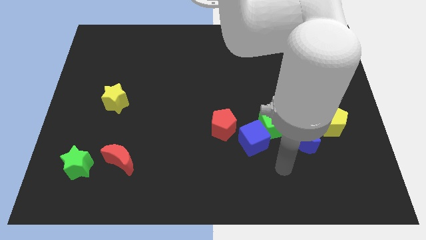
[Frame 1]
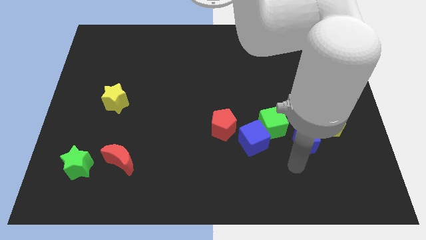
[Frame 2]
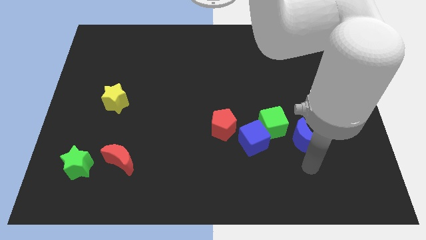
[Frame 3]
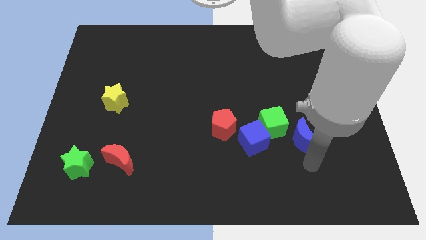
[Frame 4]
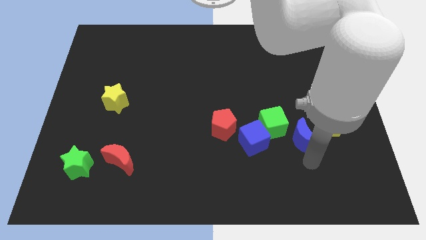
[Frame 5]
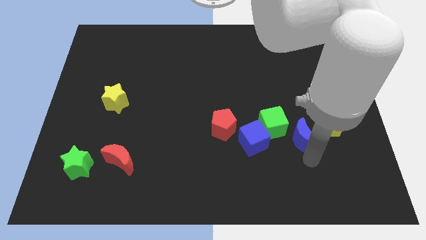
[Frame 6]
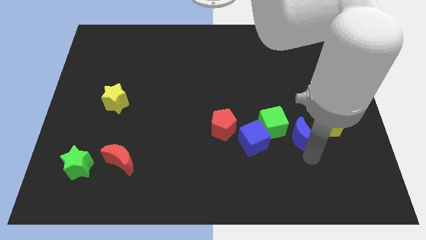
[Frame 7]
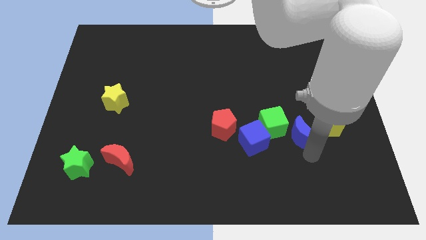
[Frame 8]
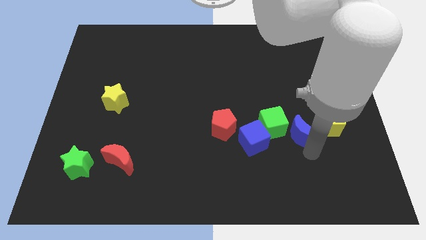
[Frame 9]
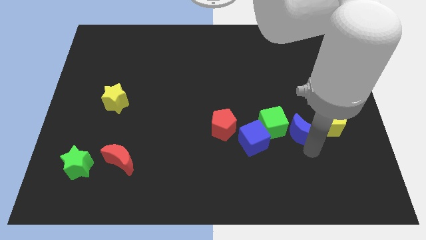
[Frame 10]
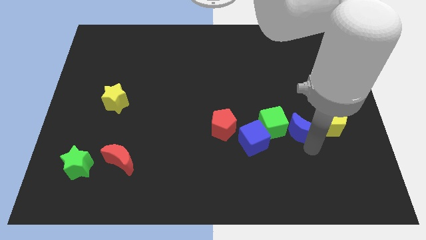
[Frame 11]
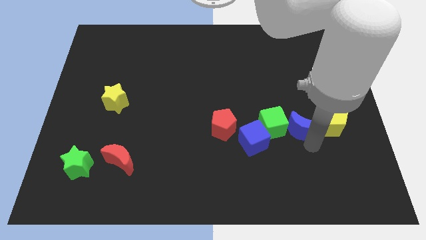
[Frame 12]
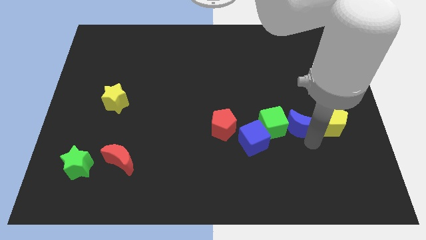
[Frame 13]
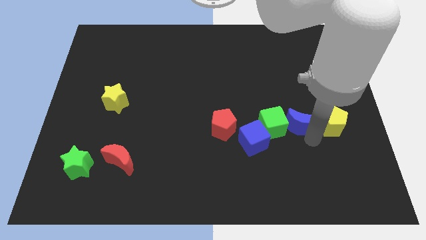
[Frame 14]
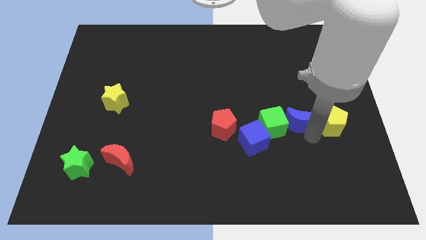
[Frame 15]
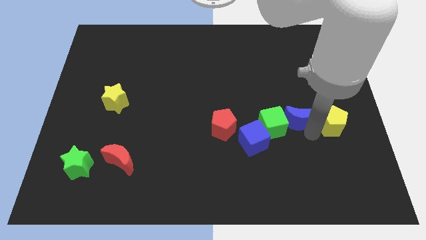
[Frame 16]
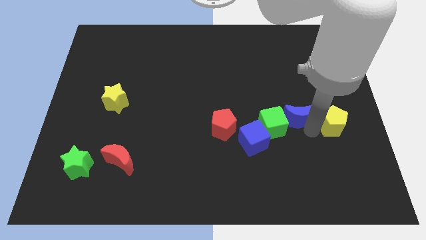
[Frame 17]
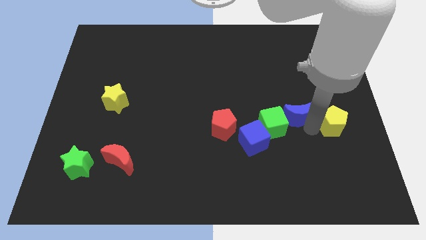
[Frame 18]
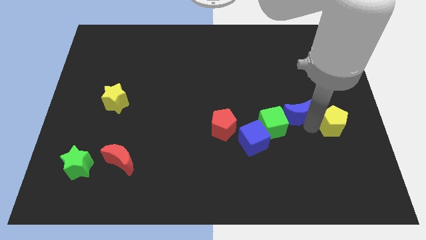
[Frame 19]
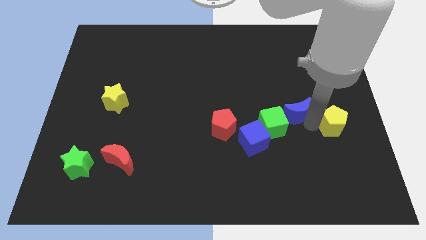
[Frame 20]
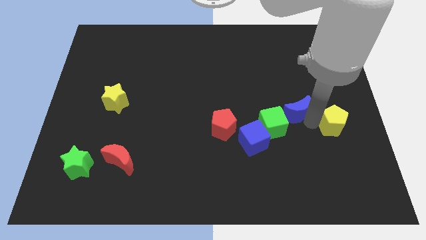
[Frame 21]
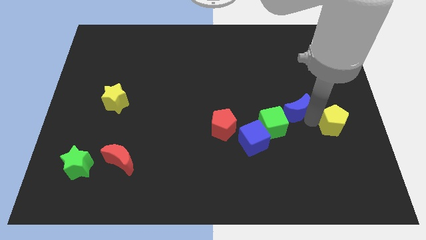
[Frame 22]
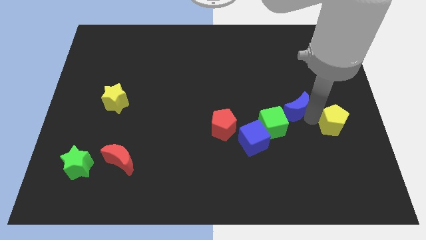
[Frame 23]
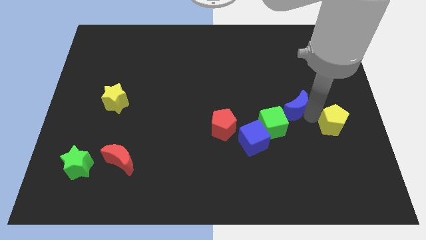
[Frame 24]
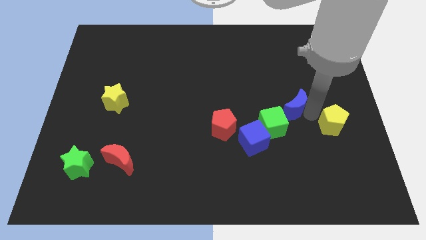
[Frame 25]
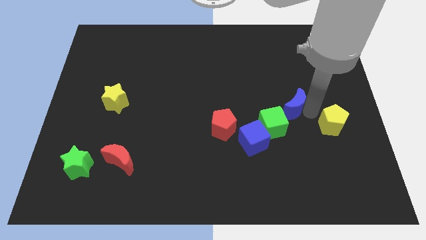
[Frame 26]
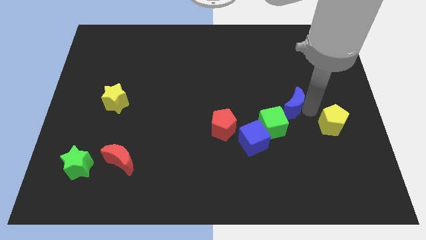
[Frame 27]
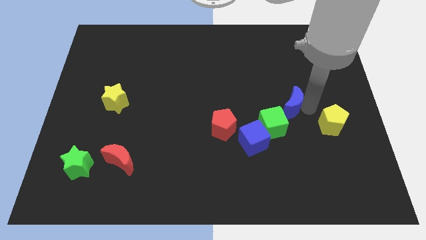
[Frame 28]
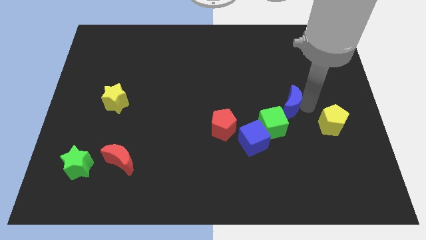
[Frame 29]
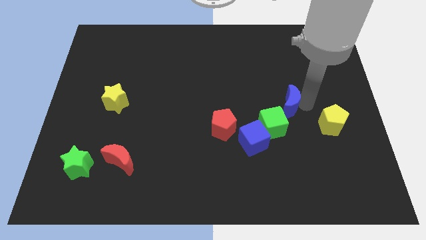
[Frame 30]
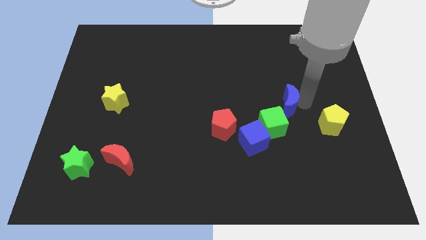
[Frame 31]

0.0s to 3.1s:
push the blue moon a little up and left

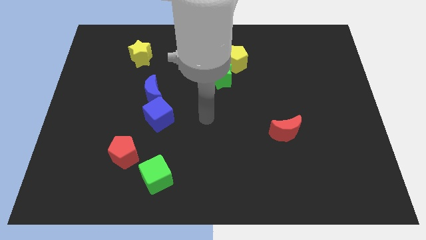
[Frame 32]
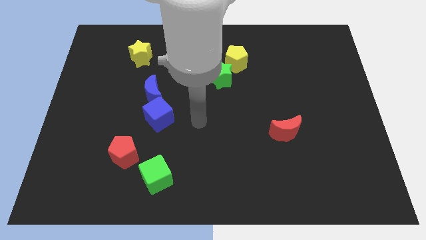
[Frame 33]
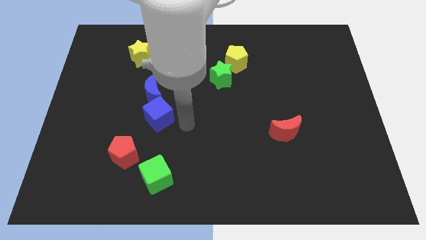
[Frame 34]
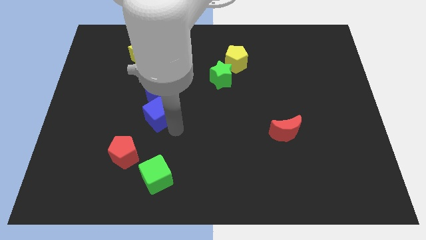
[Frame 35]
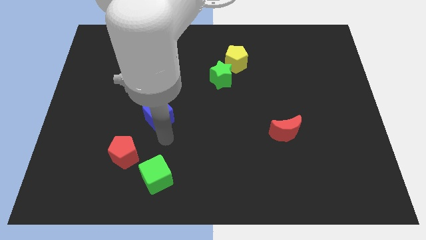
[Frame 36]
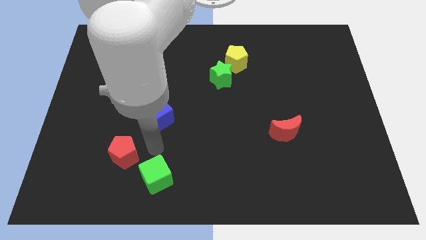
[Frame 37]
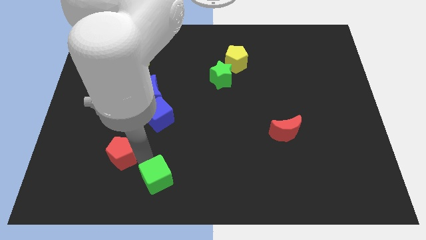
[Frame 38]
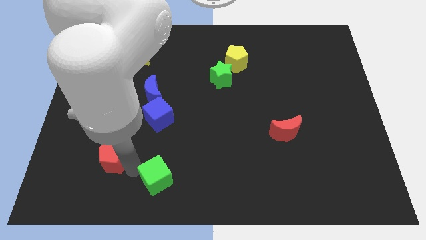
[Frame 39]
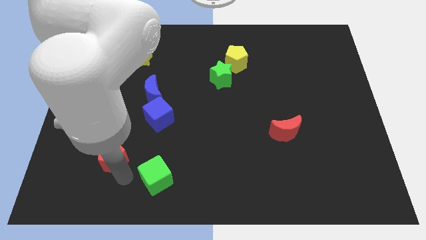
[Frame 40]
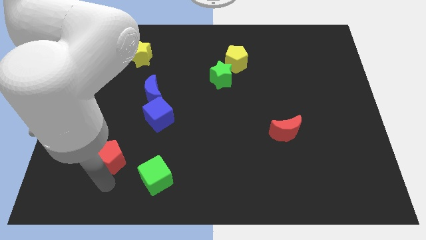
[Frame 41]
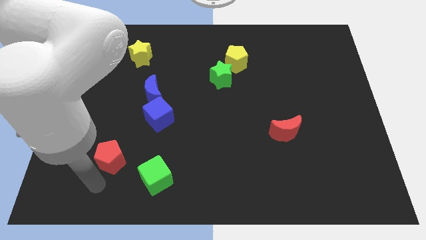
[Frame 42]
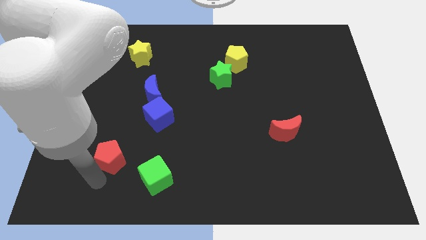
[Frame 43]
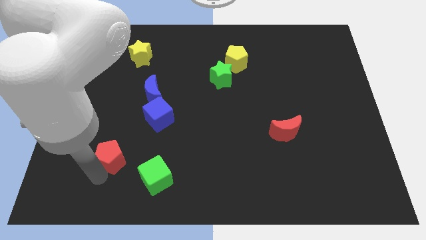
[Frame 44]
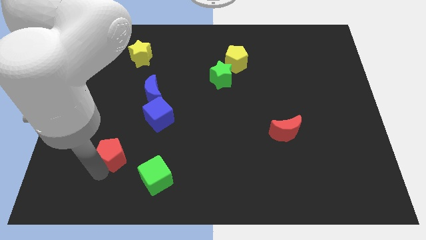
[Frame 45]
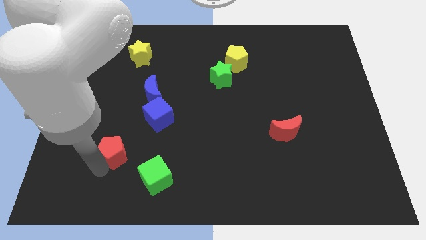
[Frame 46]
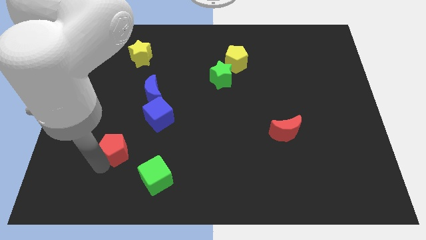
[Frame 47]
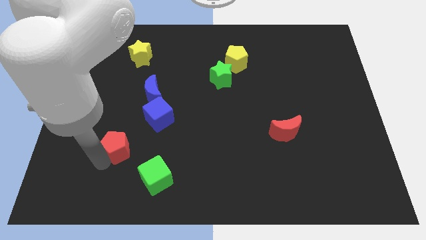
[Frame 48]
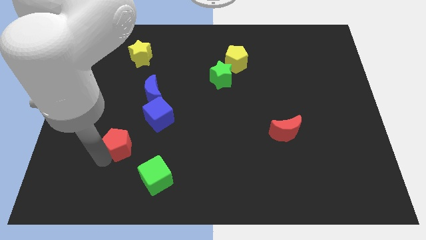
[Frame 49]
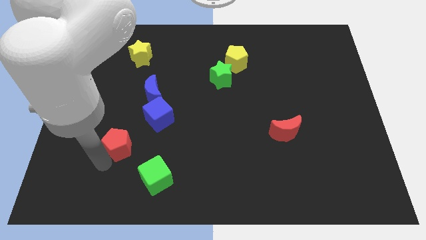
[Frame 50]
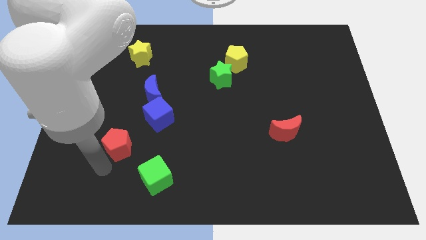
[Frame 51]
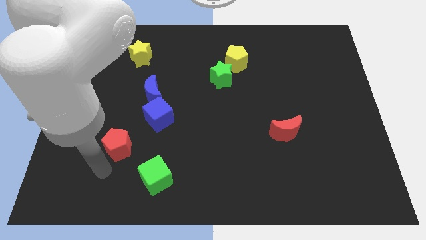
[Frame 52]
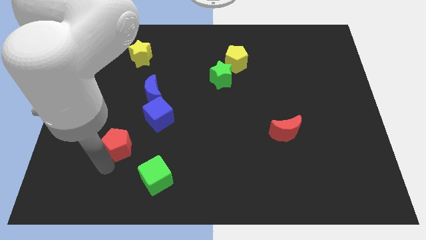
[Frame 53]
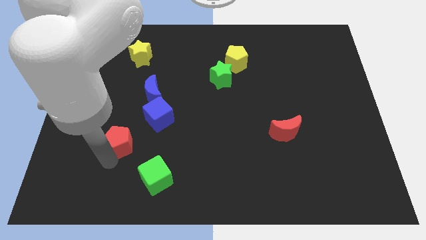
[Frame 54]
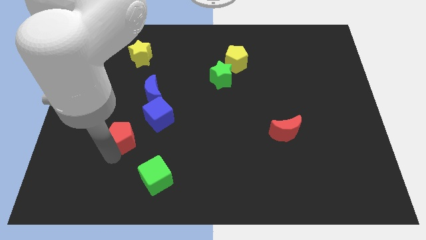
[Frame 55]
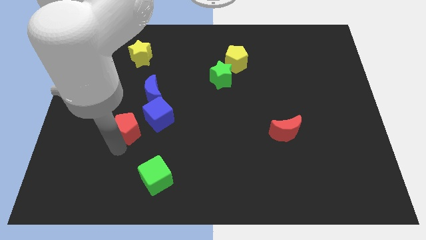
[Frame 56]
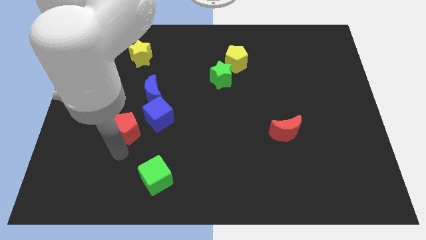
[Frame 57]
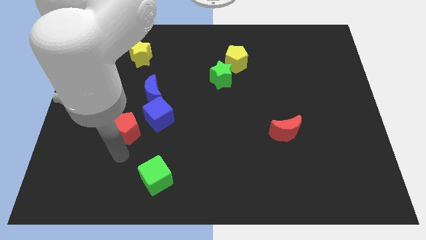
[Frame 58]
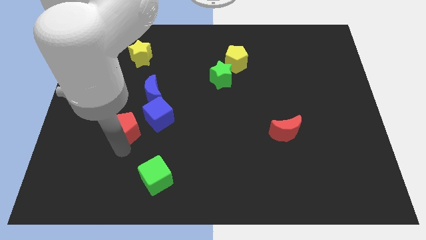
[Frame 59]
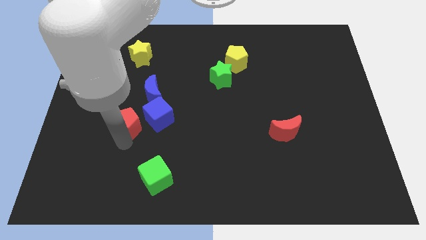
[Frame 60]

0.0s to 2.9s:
slightly push the red pentagon up

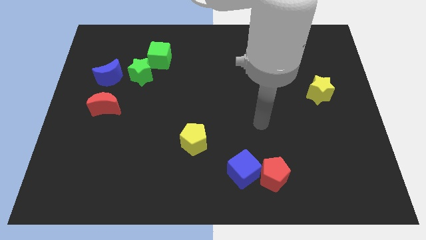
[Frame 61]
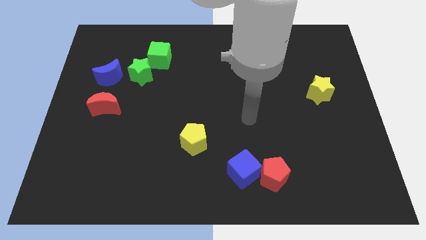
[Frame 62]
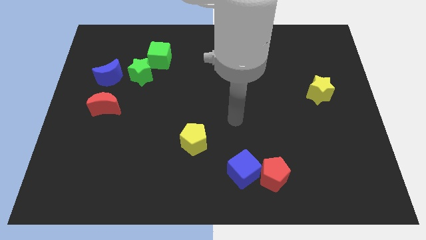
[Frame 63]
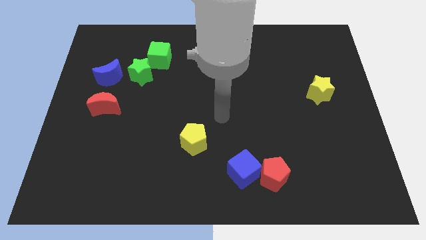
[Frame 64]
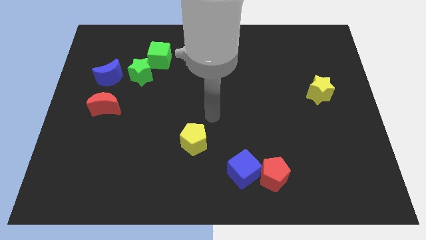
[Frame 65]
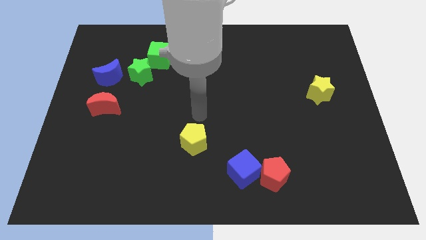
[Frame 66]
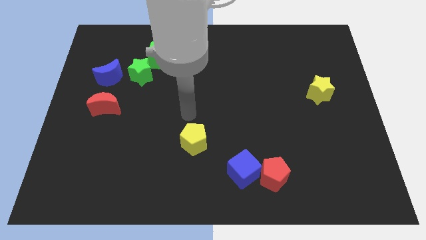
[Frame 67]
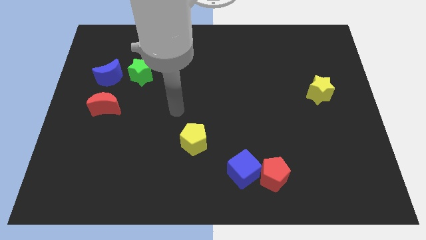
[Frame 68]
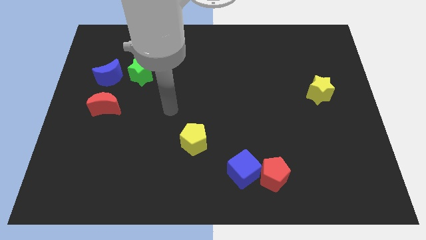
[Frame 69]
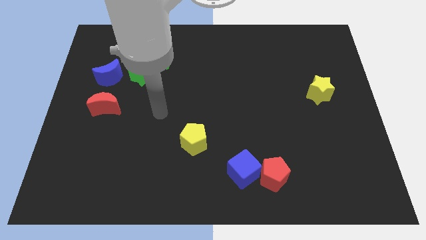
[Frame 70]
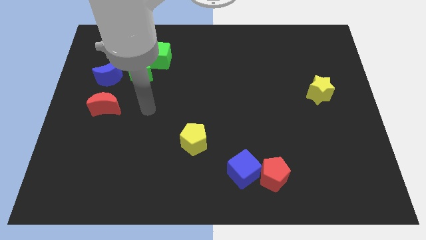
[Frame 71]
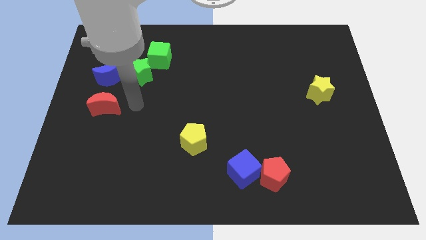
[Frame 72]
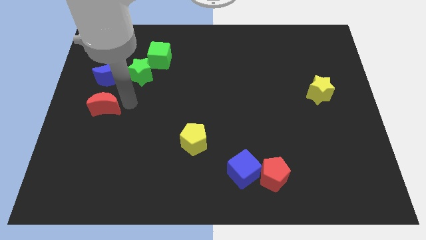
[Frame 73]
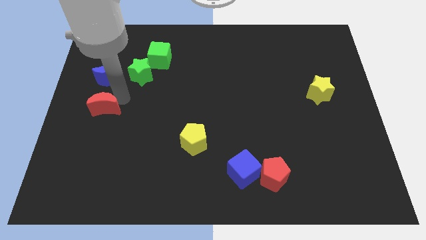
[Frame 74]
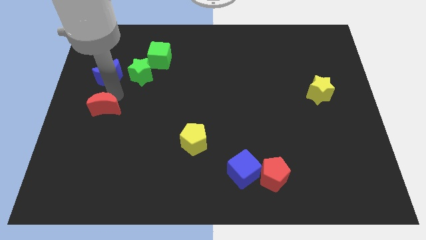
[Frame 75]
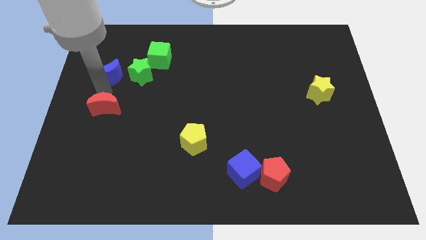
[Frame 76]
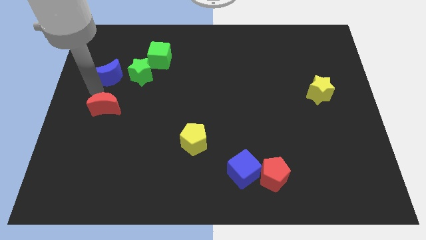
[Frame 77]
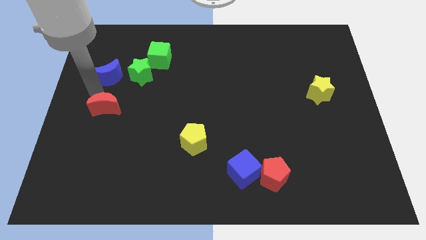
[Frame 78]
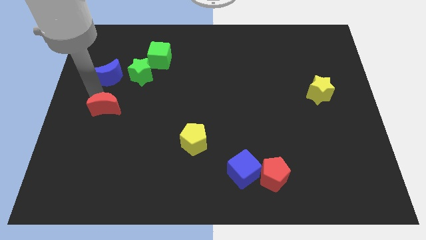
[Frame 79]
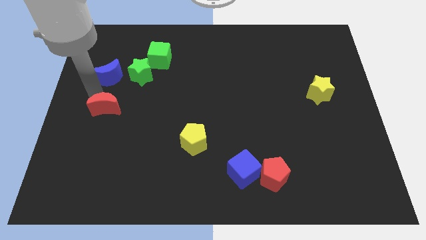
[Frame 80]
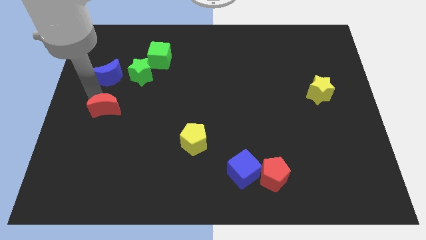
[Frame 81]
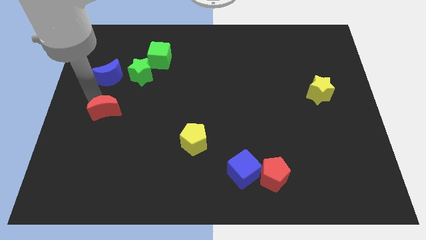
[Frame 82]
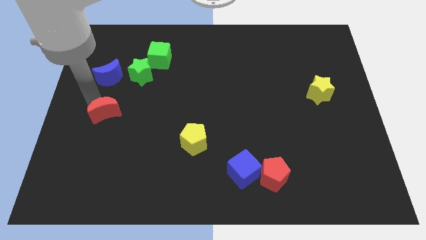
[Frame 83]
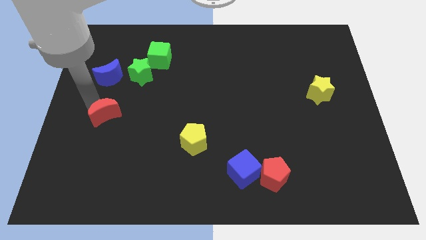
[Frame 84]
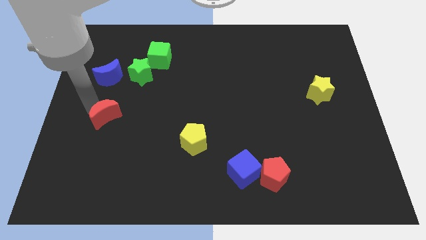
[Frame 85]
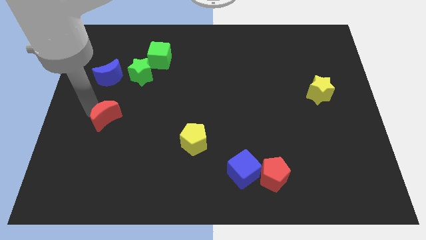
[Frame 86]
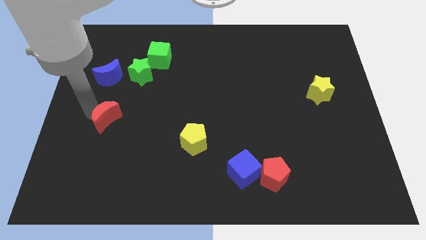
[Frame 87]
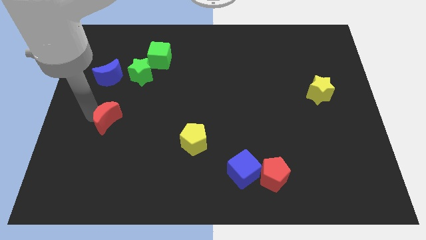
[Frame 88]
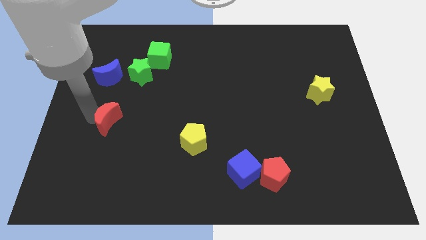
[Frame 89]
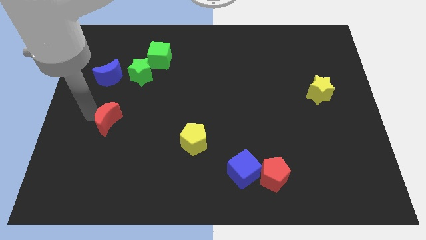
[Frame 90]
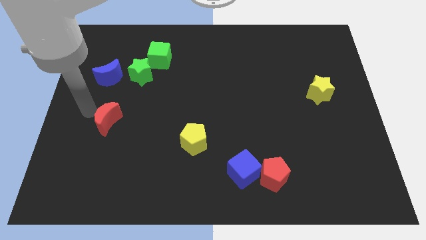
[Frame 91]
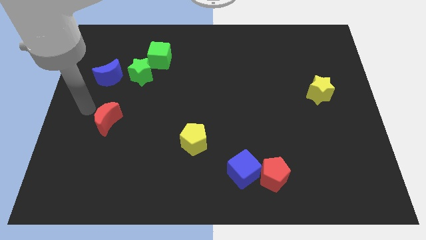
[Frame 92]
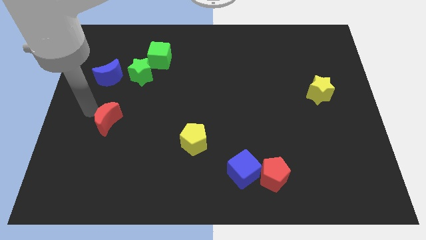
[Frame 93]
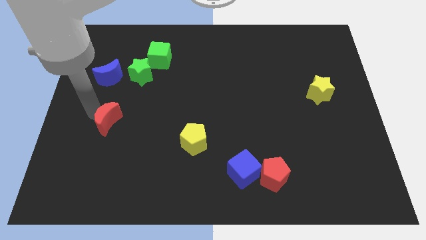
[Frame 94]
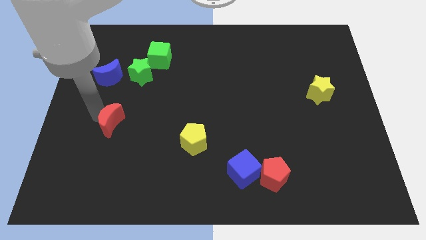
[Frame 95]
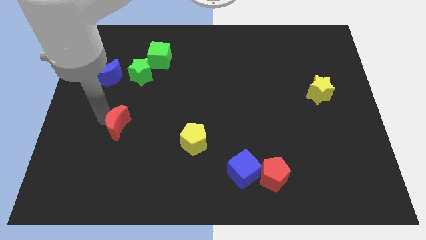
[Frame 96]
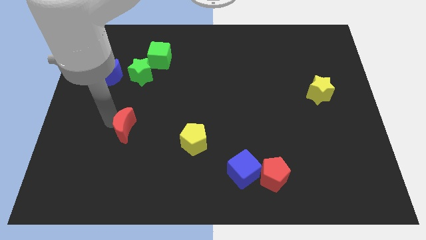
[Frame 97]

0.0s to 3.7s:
push the red moon slightly down and right diagonally
